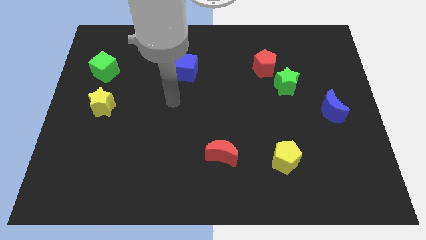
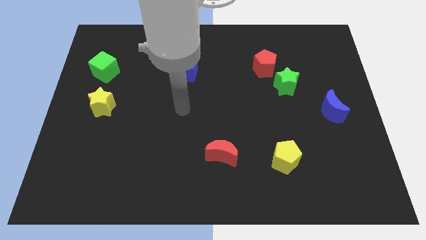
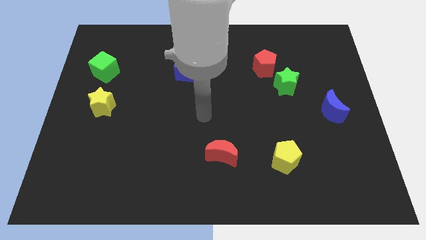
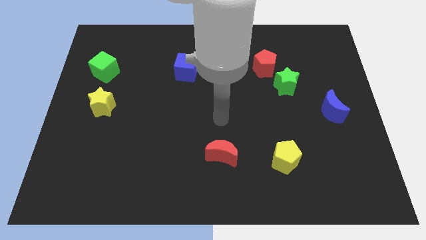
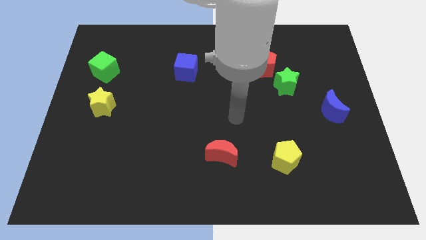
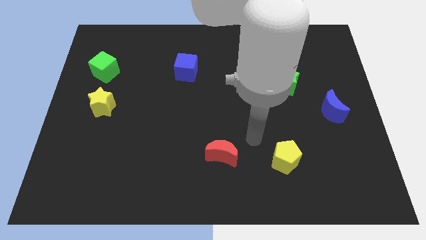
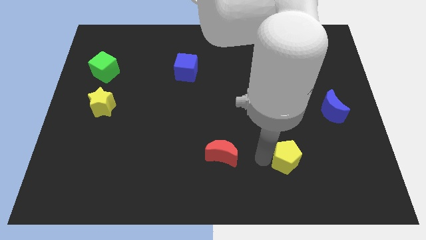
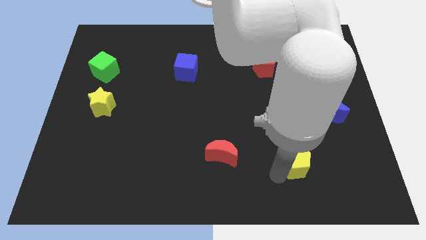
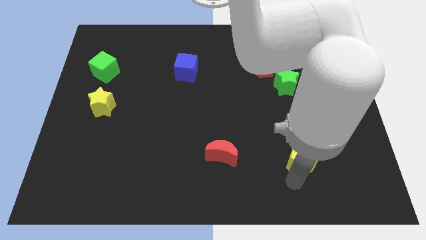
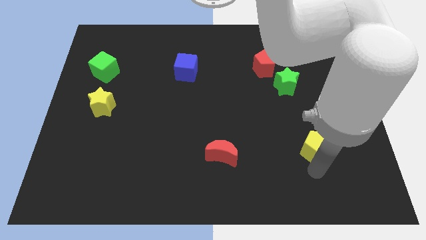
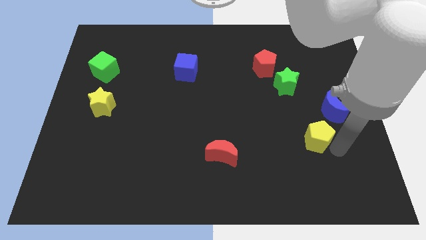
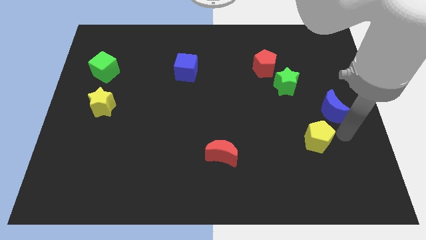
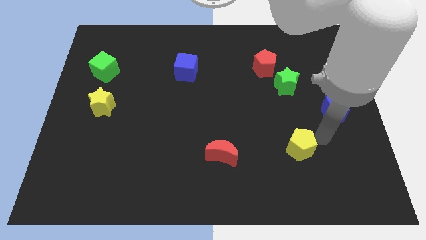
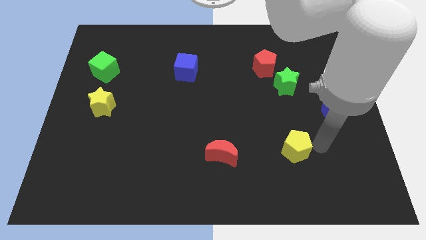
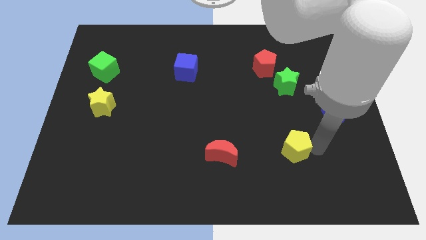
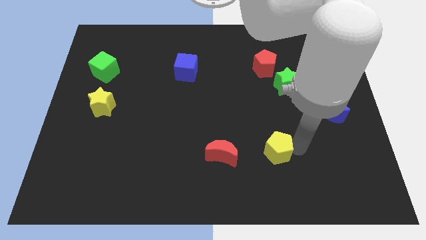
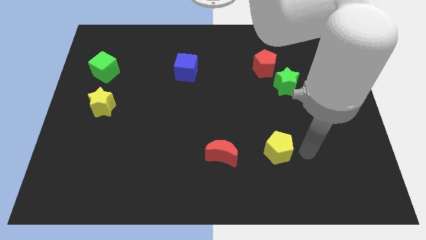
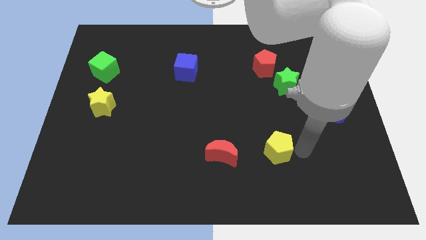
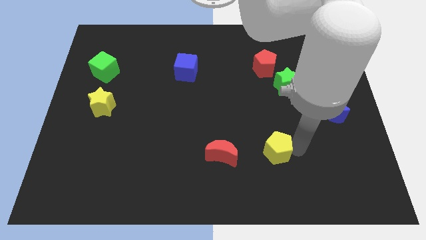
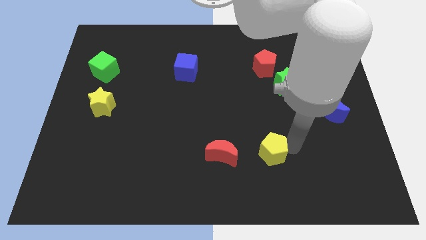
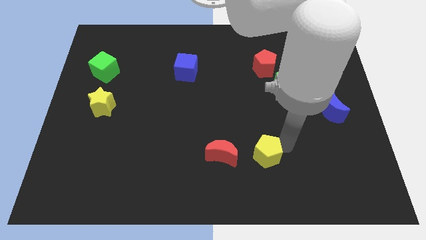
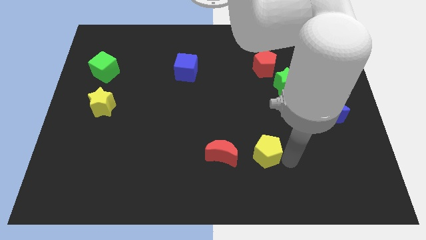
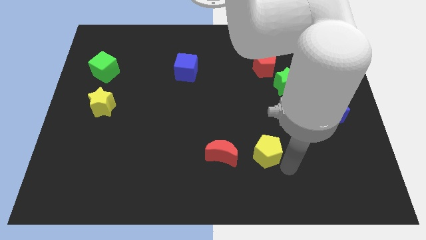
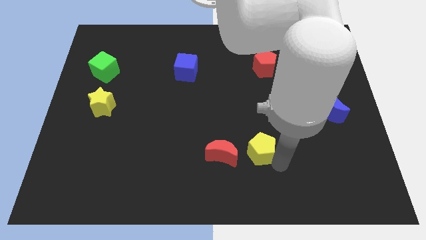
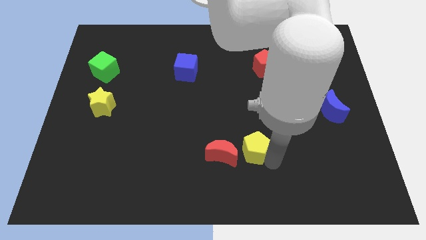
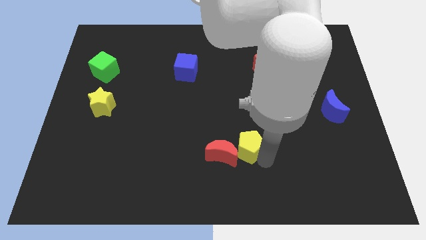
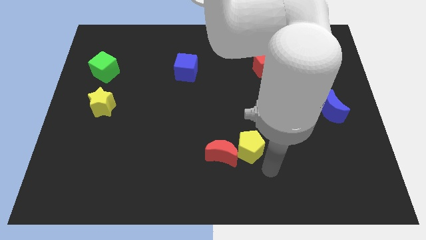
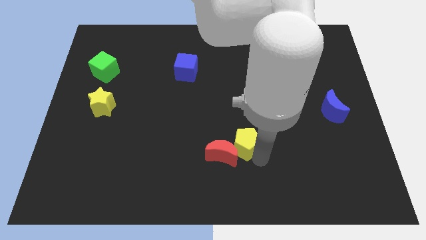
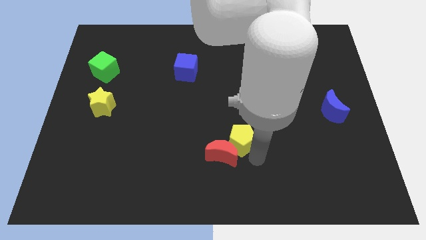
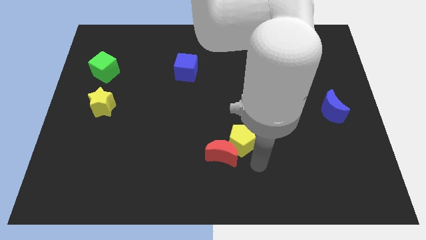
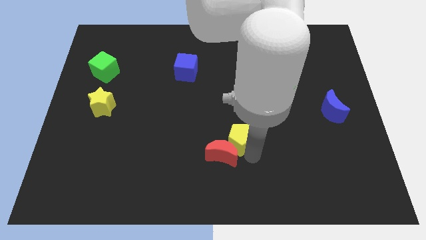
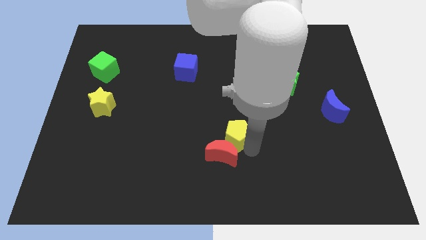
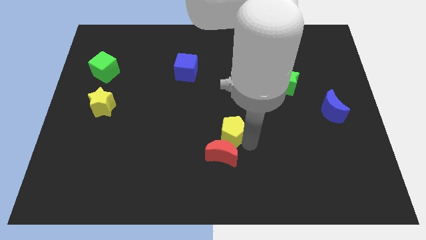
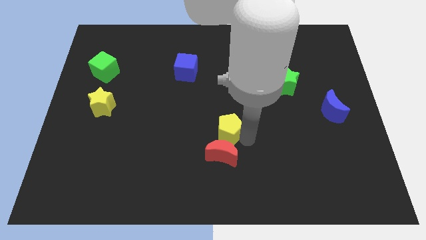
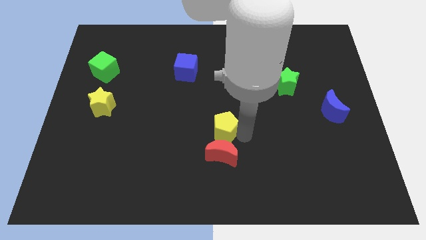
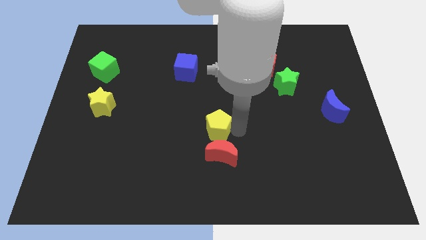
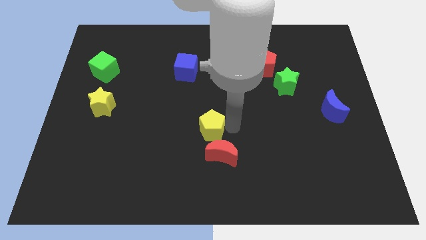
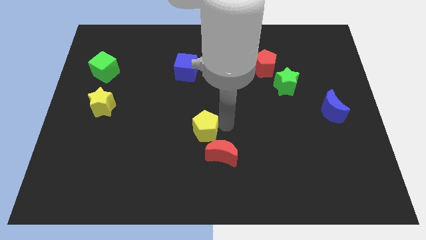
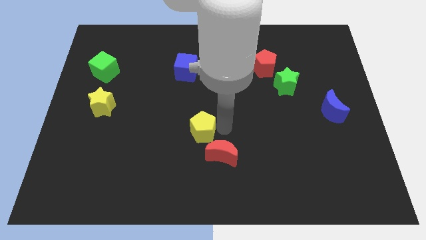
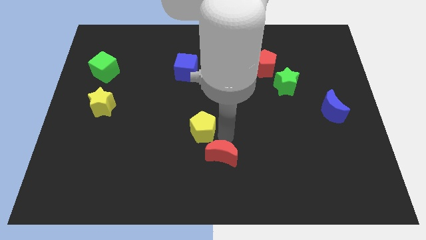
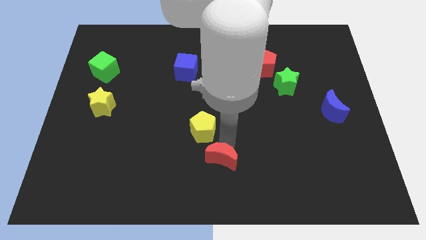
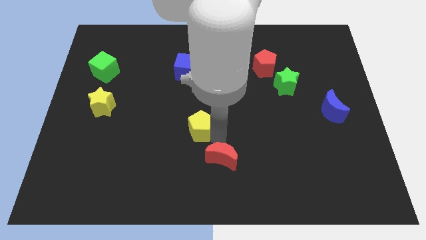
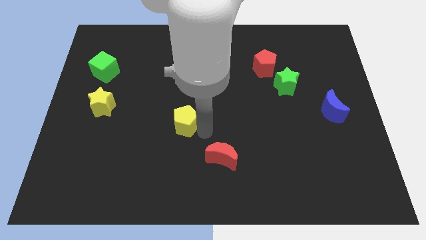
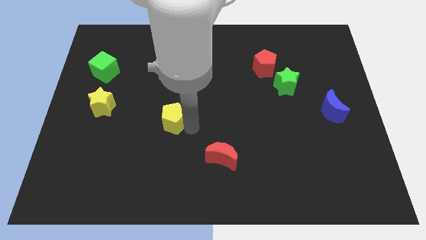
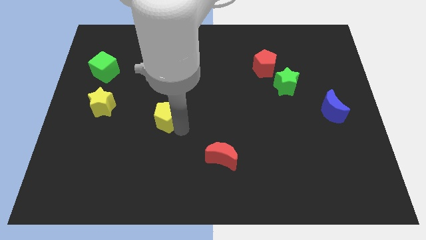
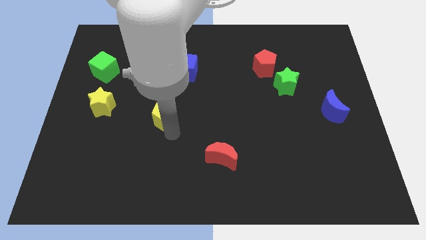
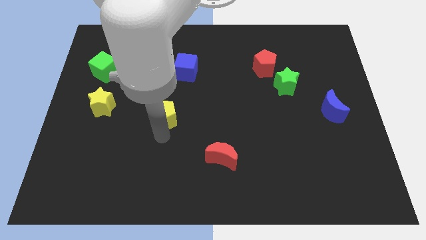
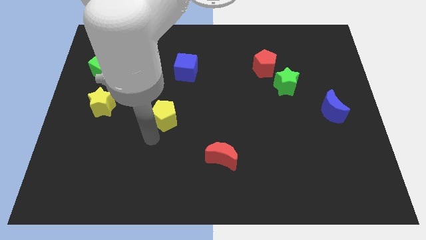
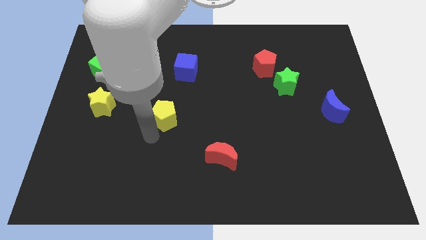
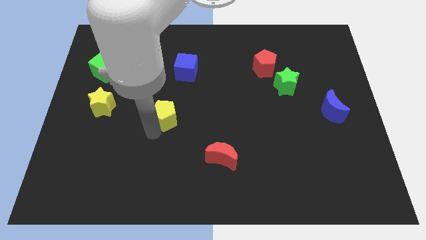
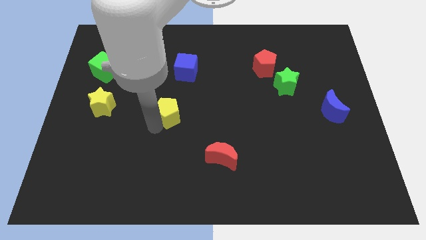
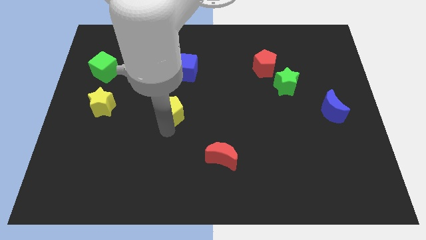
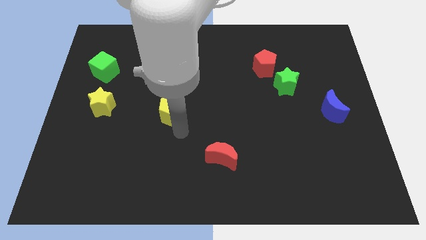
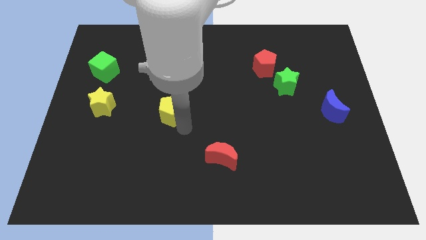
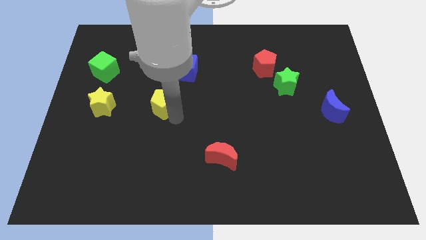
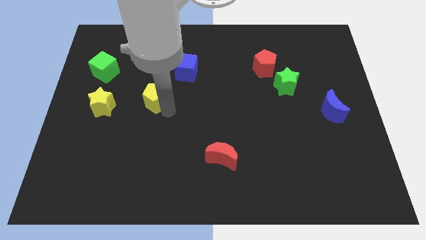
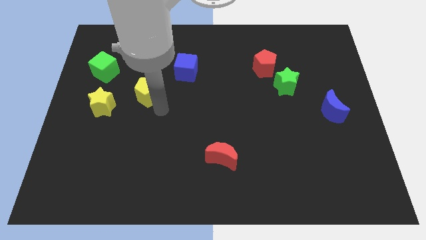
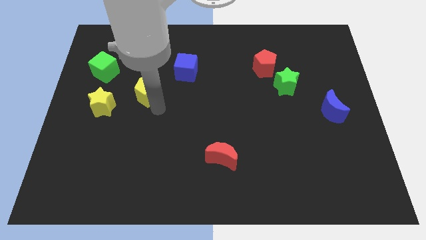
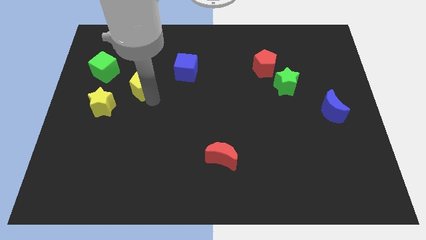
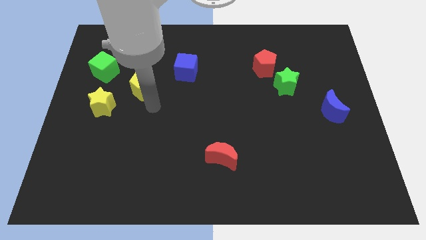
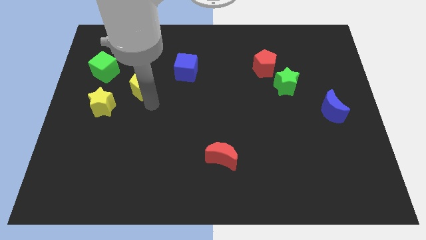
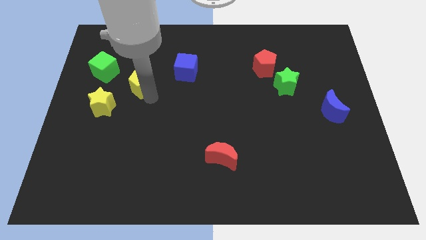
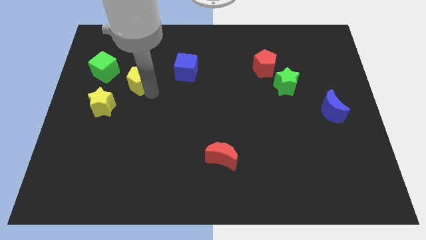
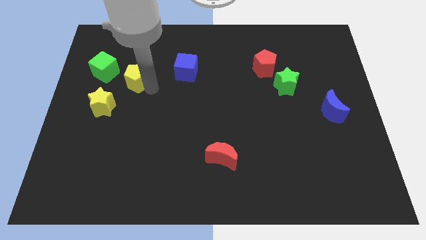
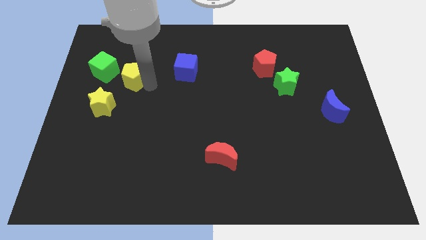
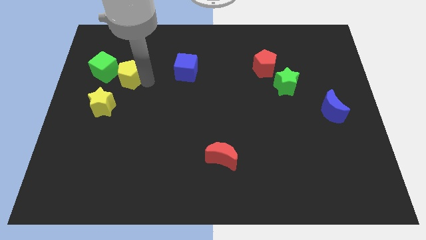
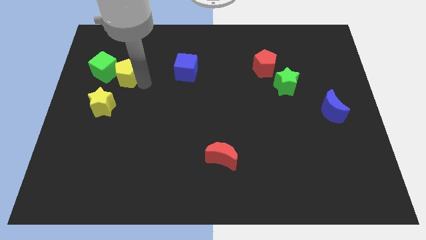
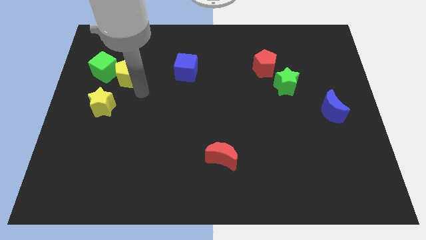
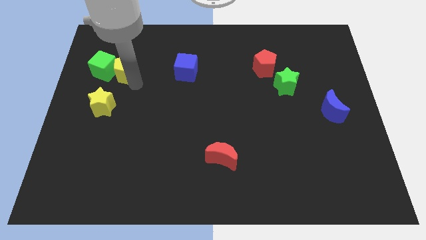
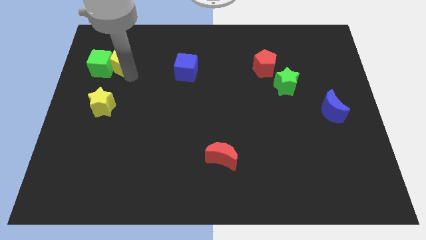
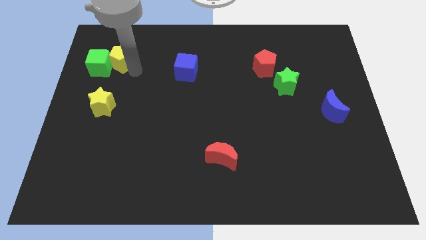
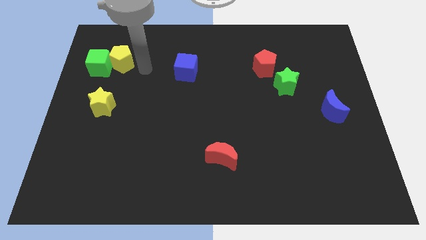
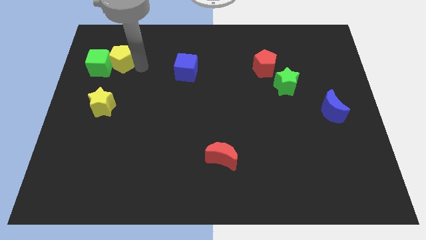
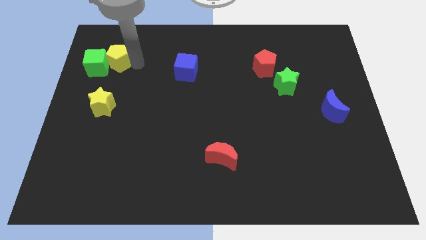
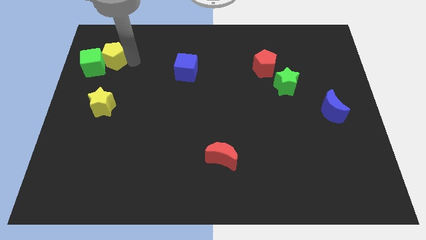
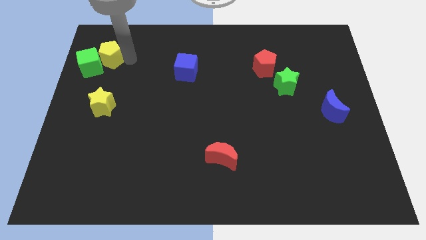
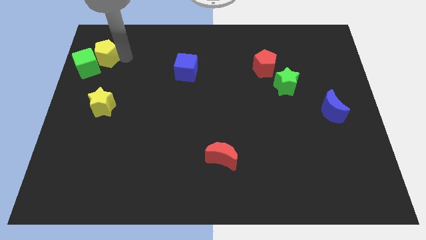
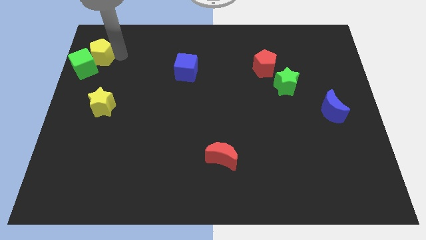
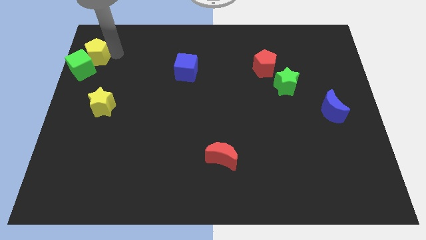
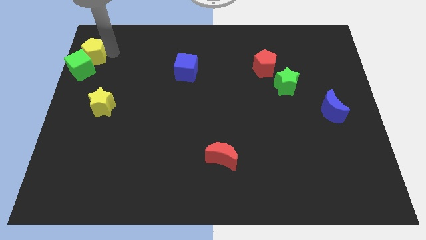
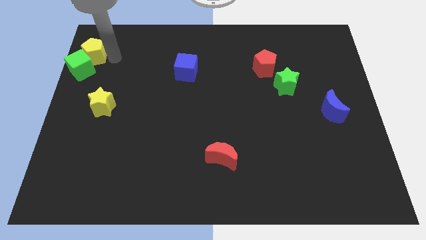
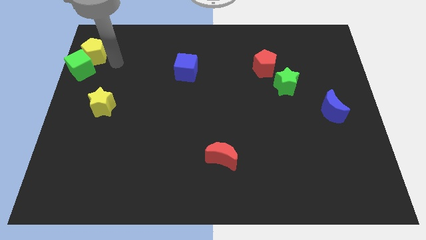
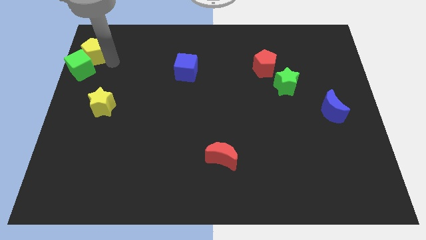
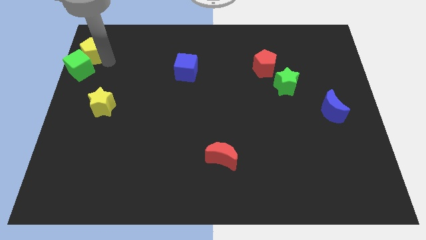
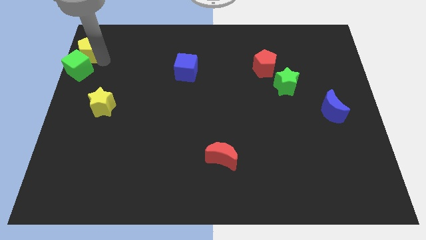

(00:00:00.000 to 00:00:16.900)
push the yellow pentagon to the upper left corner
